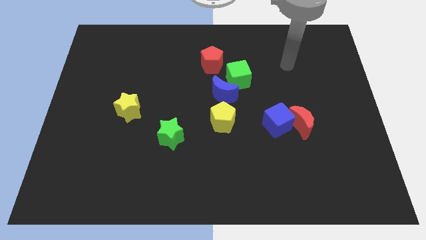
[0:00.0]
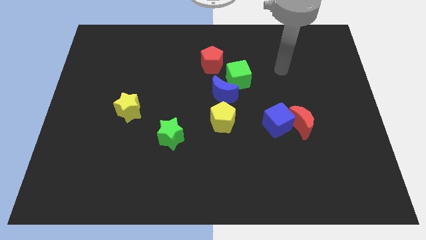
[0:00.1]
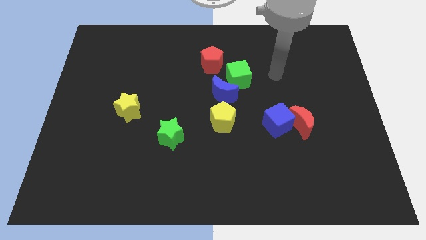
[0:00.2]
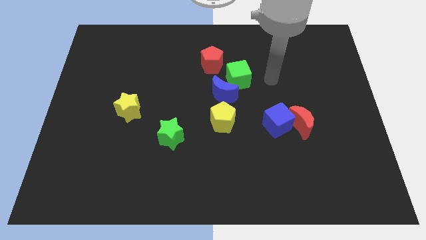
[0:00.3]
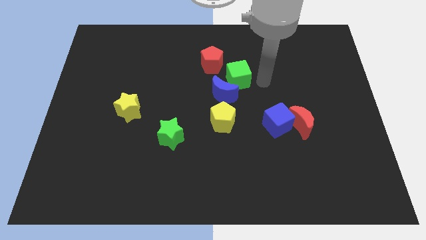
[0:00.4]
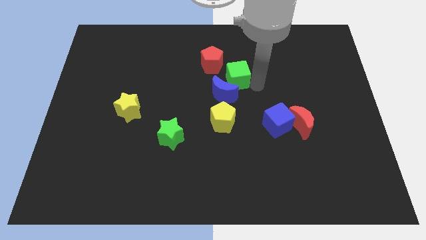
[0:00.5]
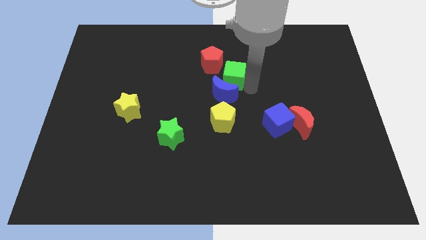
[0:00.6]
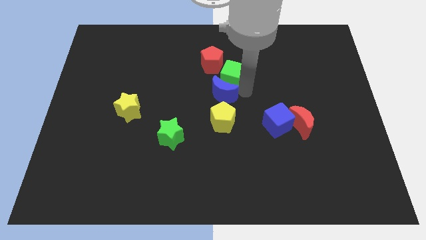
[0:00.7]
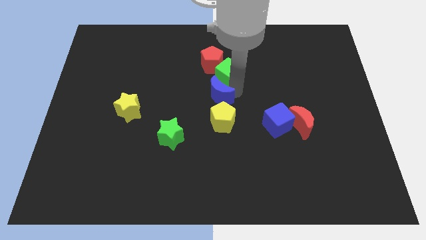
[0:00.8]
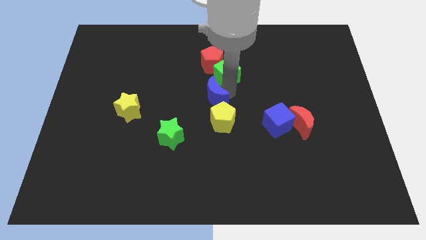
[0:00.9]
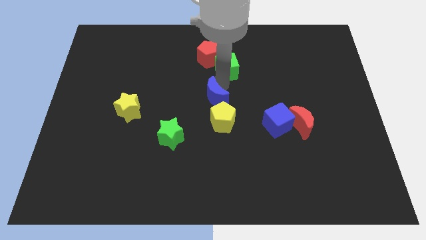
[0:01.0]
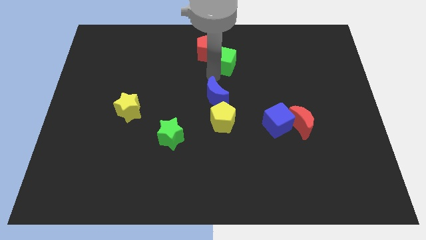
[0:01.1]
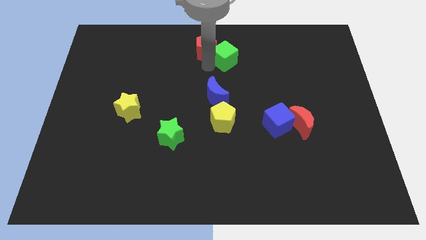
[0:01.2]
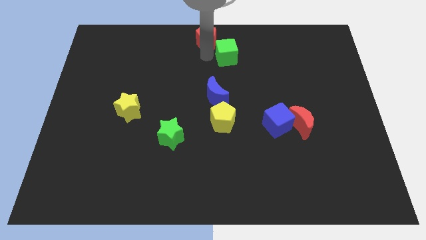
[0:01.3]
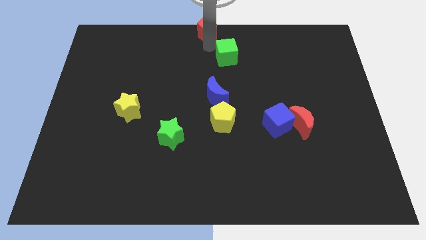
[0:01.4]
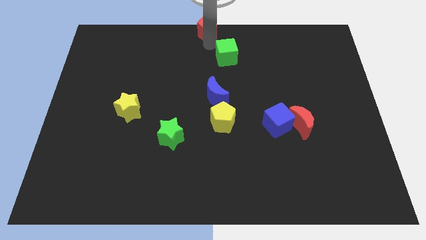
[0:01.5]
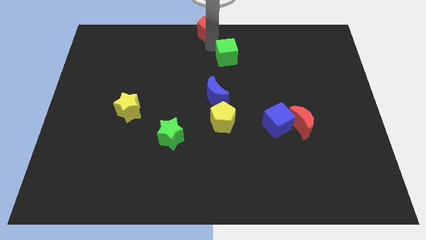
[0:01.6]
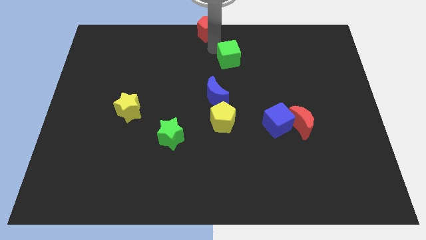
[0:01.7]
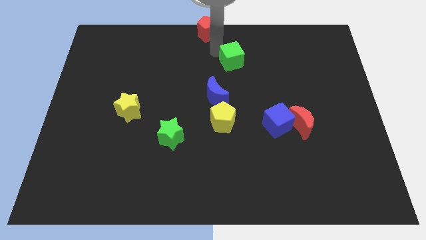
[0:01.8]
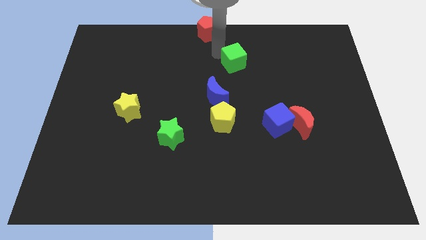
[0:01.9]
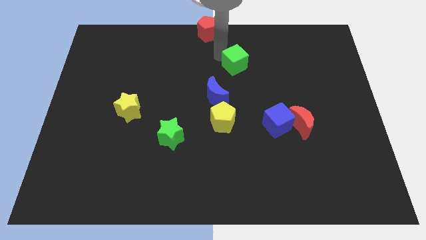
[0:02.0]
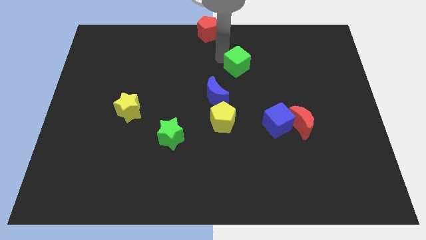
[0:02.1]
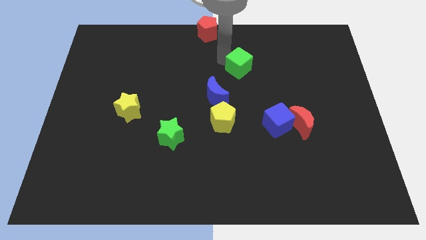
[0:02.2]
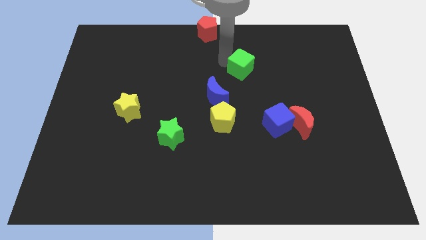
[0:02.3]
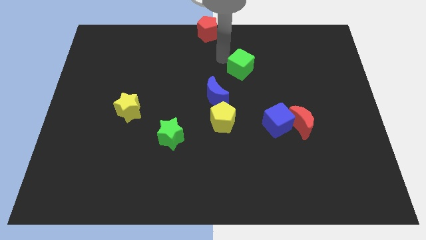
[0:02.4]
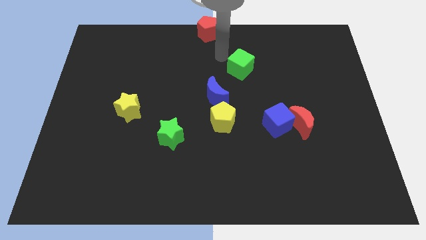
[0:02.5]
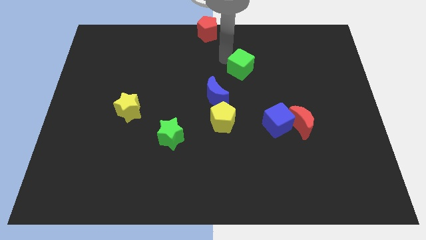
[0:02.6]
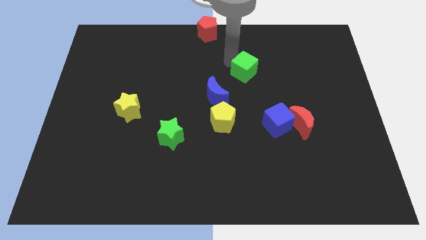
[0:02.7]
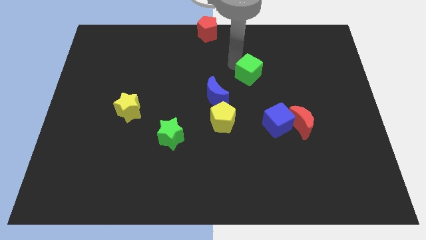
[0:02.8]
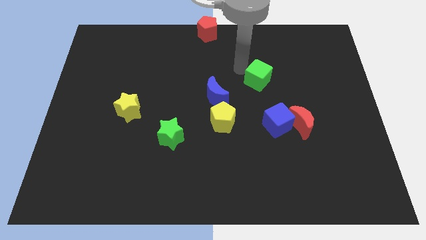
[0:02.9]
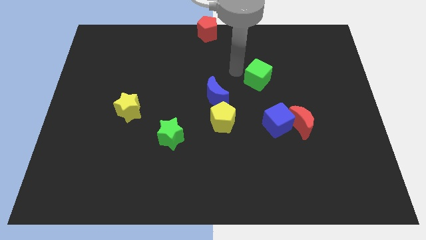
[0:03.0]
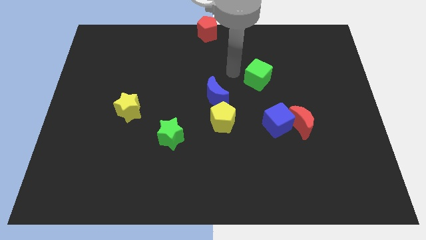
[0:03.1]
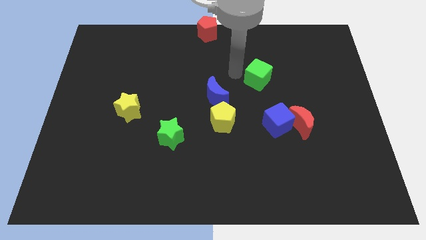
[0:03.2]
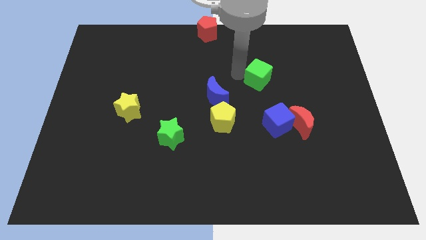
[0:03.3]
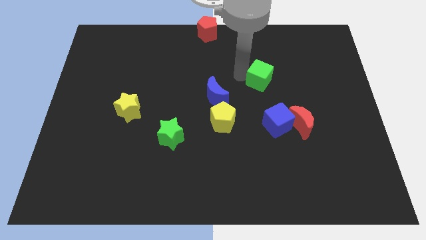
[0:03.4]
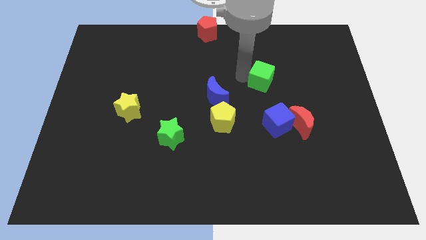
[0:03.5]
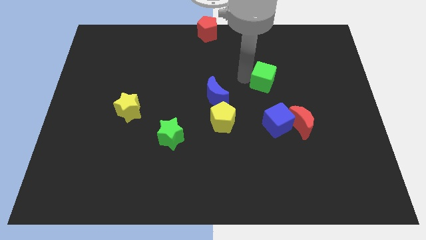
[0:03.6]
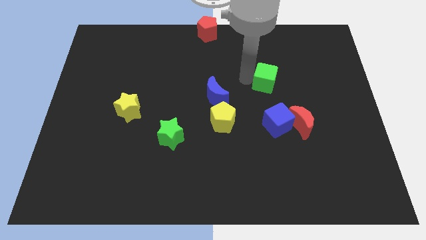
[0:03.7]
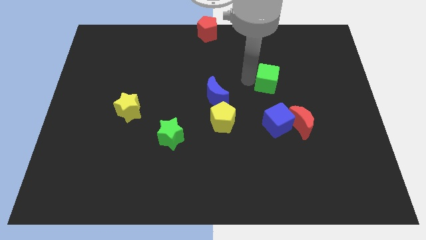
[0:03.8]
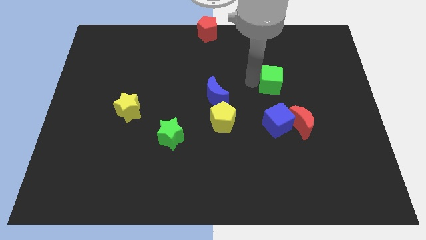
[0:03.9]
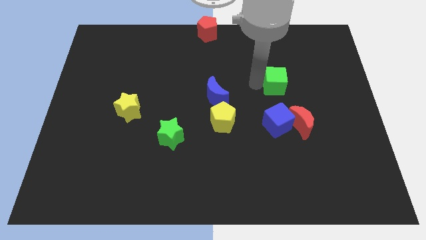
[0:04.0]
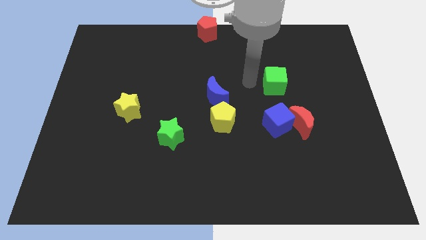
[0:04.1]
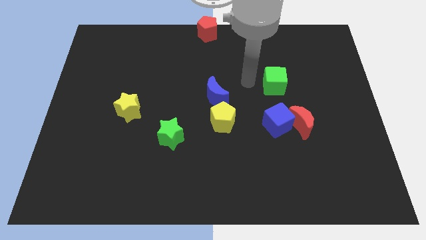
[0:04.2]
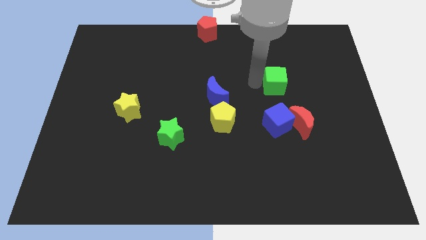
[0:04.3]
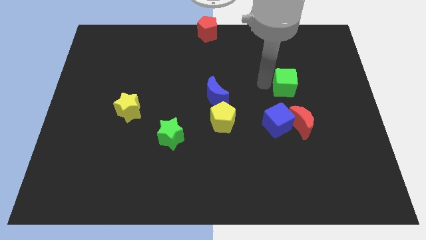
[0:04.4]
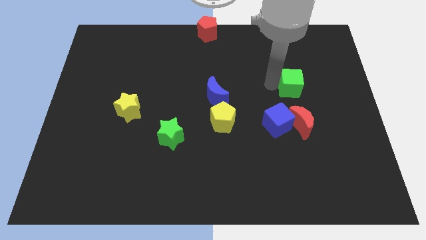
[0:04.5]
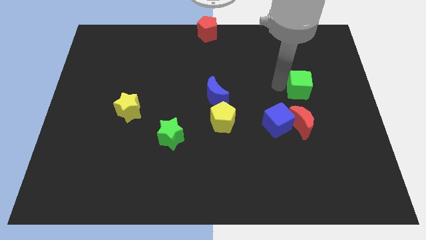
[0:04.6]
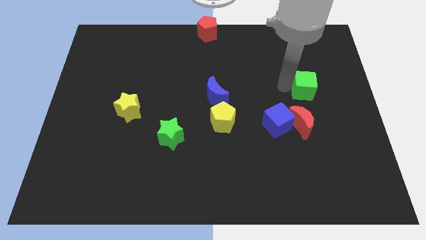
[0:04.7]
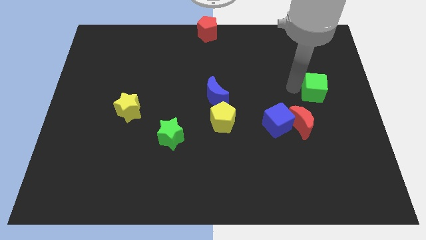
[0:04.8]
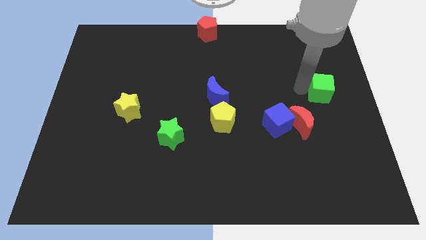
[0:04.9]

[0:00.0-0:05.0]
move the green cube to the center right

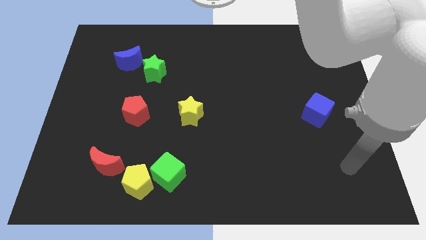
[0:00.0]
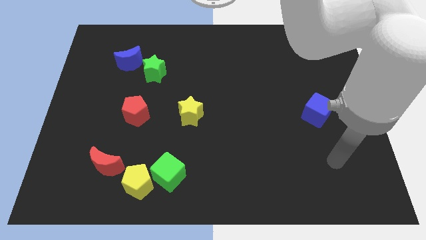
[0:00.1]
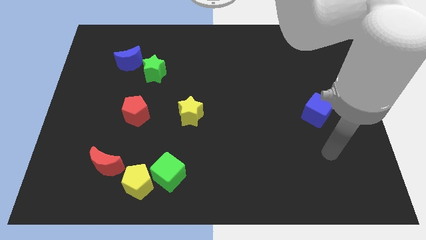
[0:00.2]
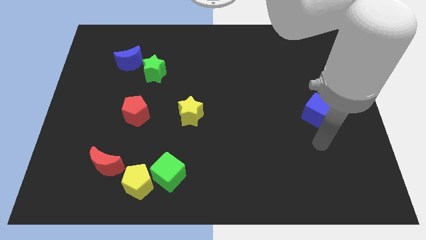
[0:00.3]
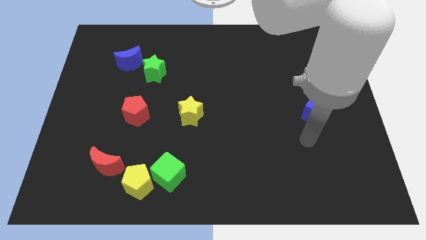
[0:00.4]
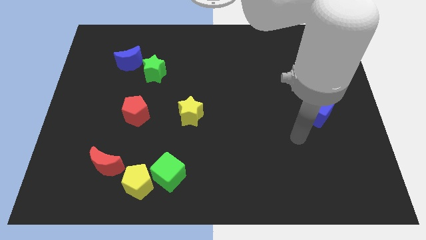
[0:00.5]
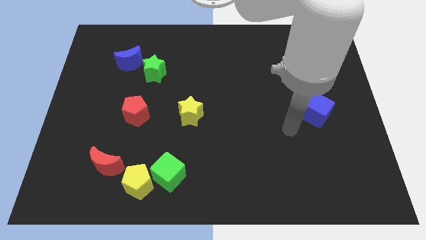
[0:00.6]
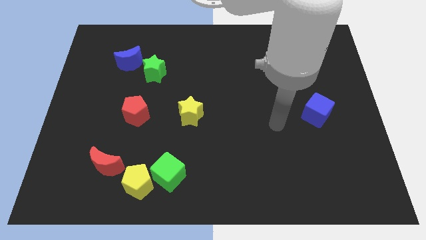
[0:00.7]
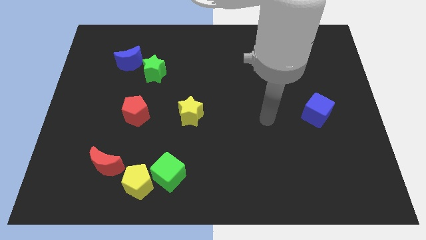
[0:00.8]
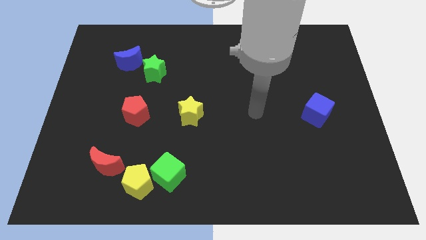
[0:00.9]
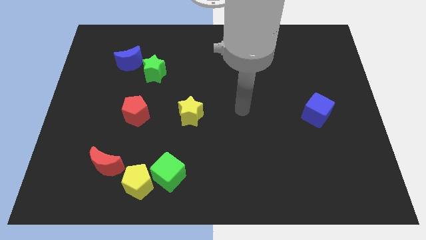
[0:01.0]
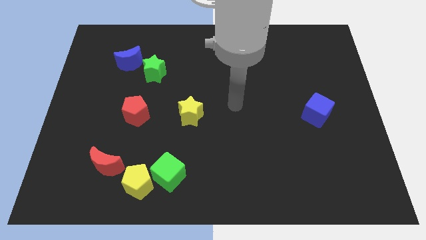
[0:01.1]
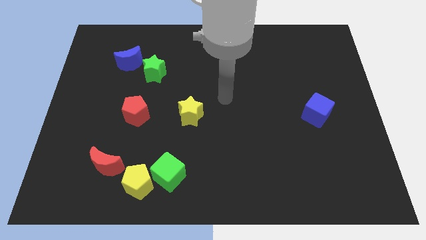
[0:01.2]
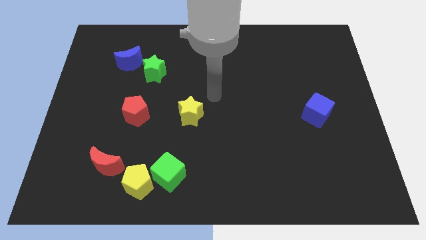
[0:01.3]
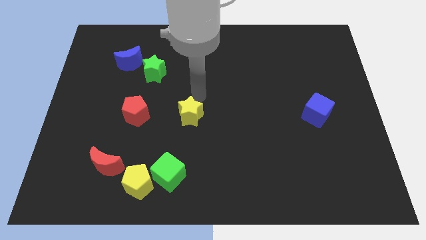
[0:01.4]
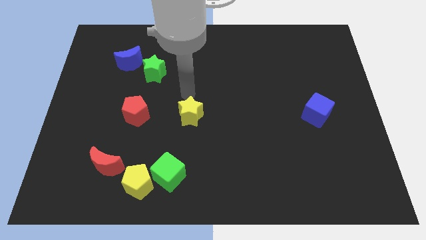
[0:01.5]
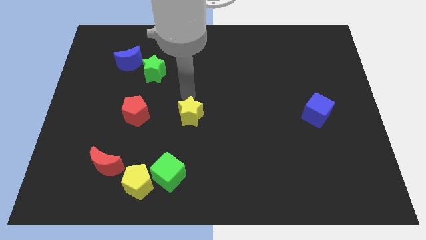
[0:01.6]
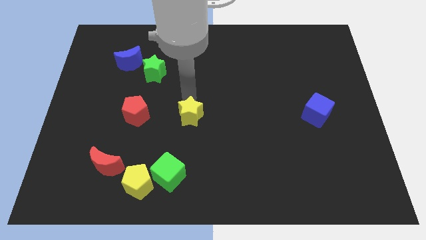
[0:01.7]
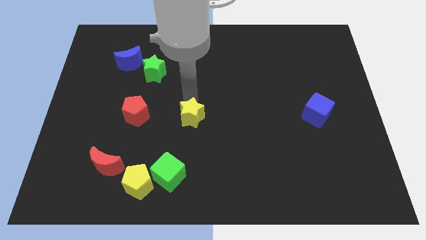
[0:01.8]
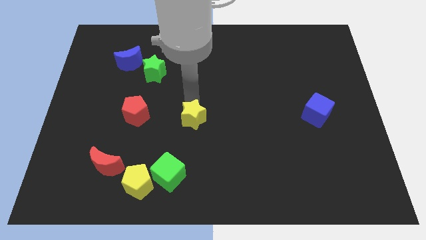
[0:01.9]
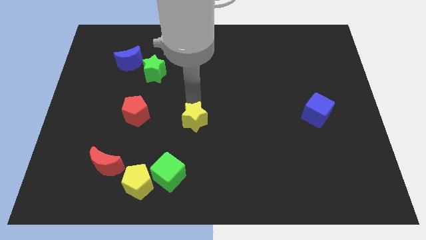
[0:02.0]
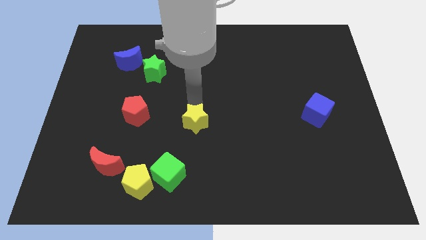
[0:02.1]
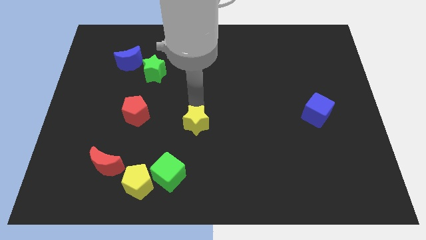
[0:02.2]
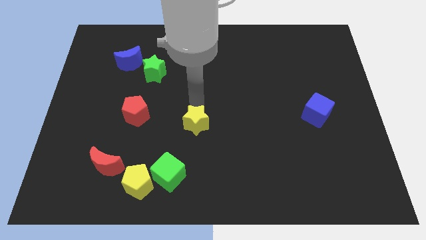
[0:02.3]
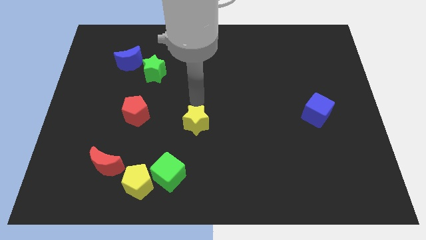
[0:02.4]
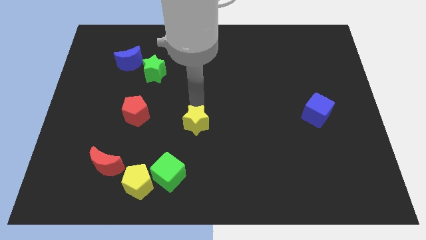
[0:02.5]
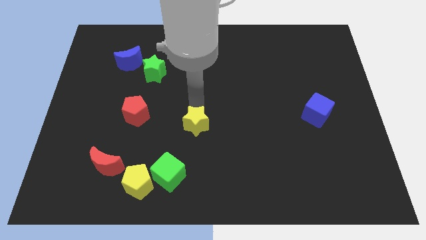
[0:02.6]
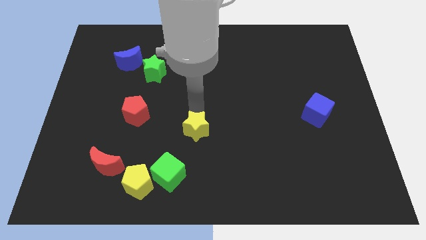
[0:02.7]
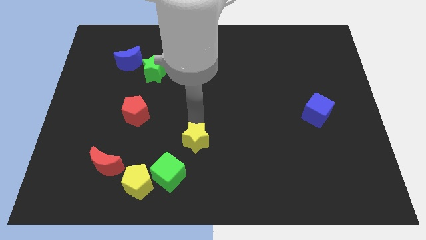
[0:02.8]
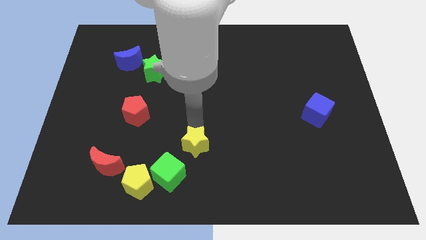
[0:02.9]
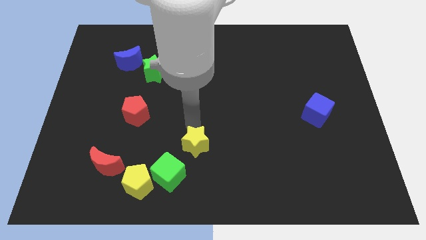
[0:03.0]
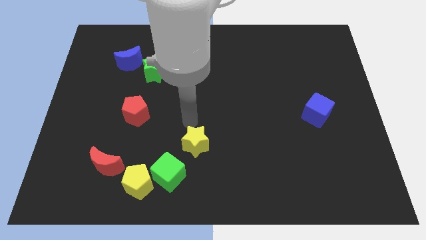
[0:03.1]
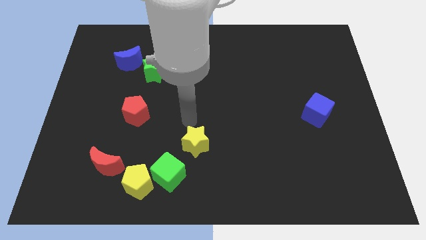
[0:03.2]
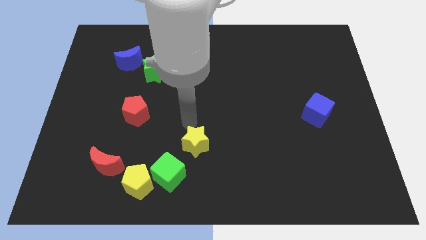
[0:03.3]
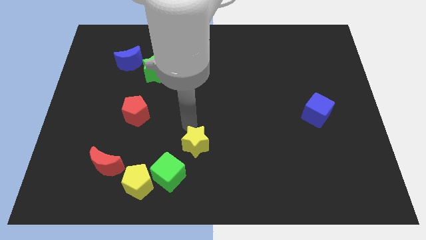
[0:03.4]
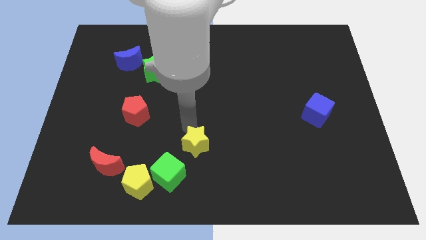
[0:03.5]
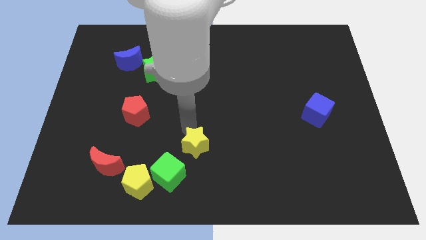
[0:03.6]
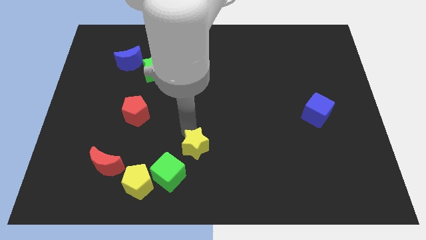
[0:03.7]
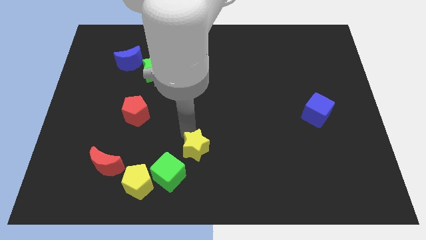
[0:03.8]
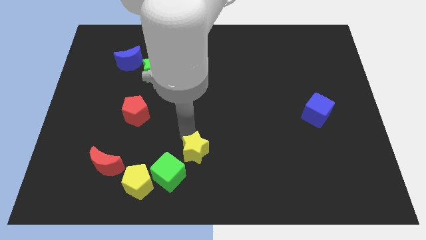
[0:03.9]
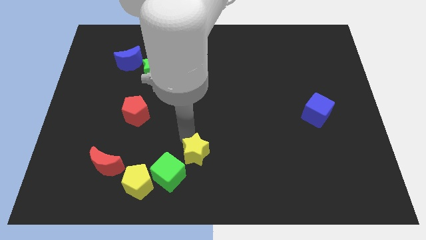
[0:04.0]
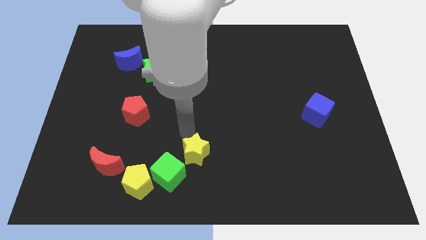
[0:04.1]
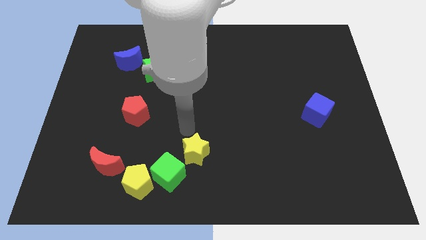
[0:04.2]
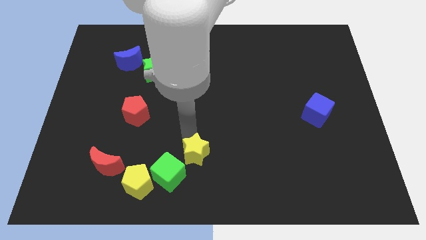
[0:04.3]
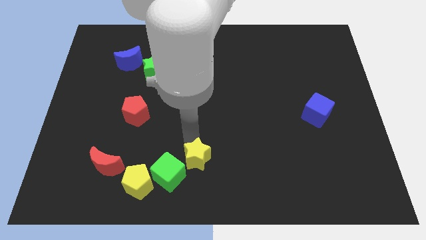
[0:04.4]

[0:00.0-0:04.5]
push the yellow star to the bottom side
